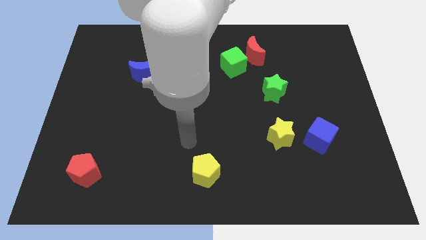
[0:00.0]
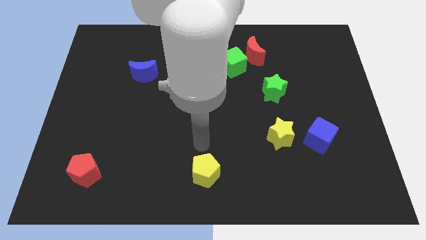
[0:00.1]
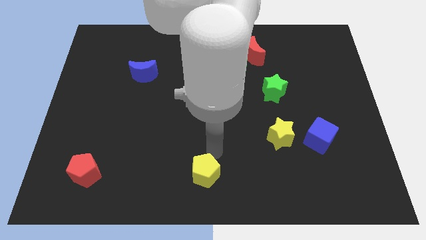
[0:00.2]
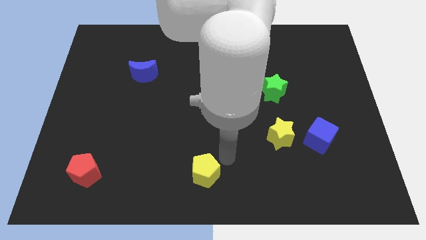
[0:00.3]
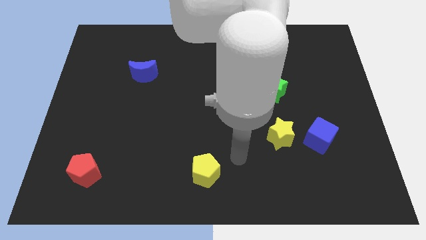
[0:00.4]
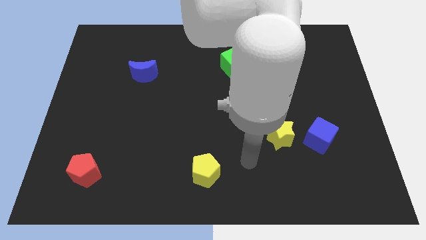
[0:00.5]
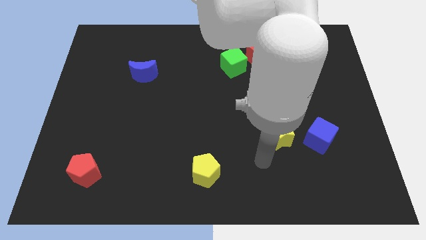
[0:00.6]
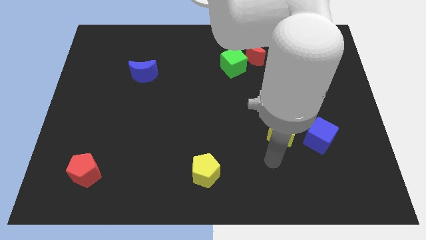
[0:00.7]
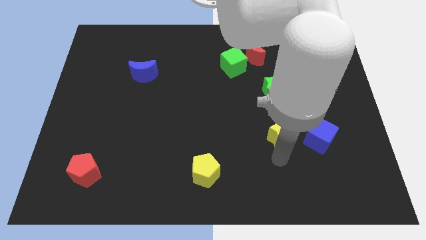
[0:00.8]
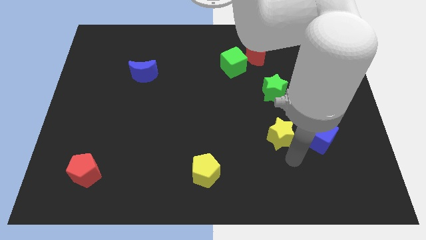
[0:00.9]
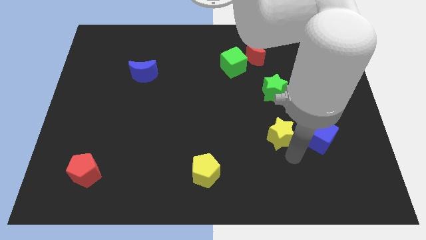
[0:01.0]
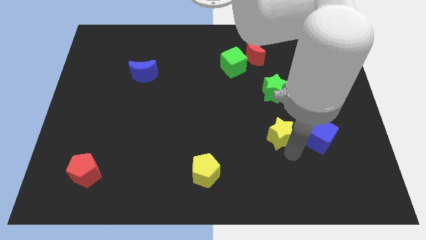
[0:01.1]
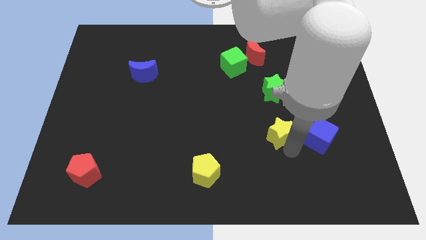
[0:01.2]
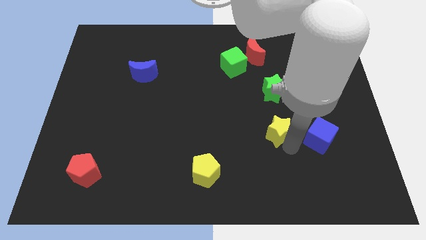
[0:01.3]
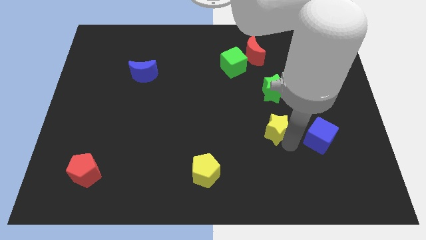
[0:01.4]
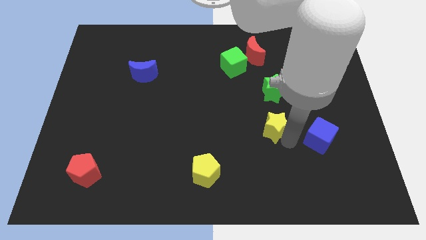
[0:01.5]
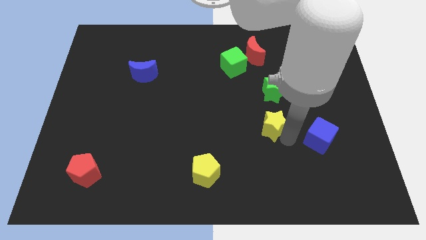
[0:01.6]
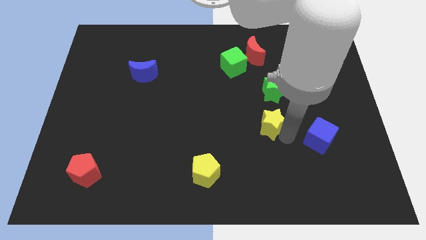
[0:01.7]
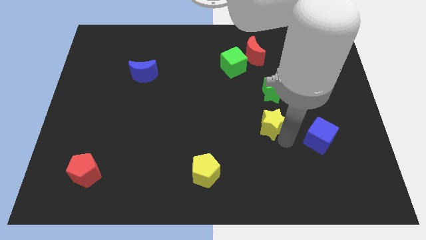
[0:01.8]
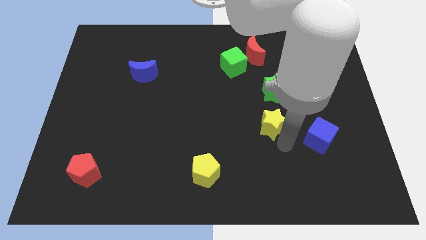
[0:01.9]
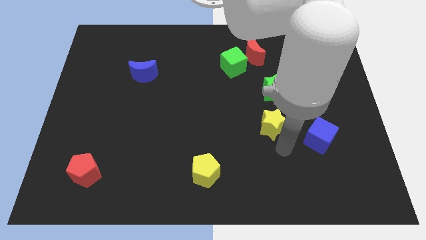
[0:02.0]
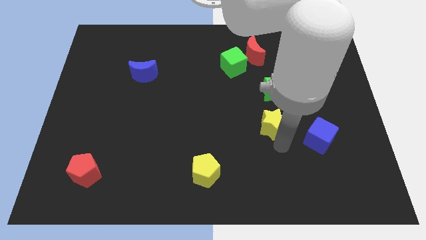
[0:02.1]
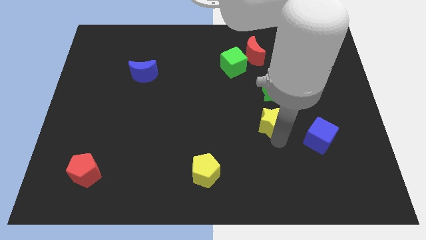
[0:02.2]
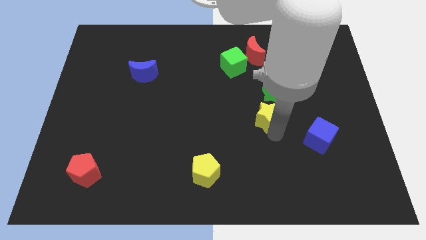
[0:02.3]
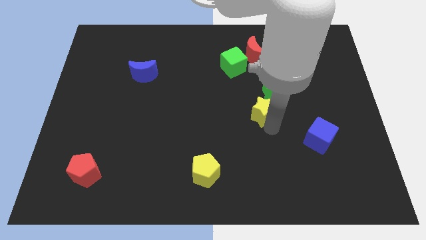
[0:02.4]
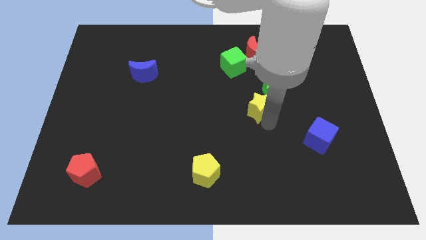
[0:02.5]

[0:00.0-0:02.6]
slightly push the yellow star upwards

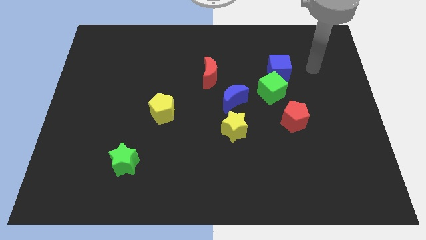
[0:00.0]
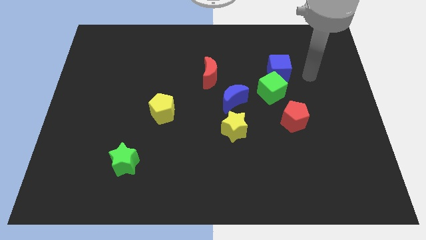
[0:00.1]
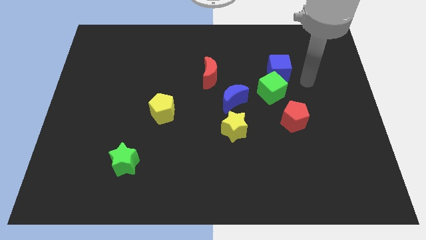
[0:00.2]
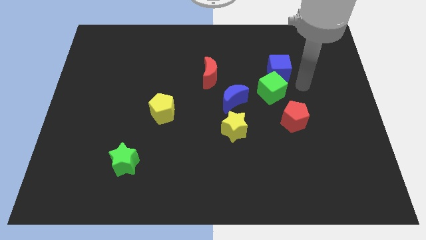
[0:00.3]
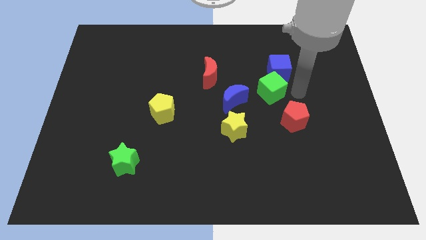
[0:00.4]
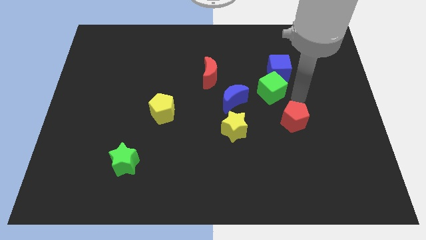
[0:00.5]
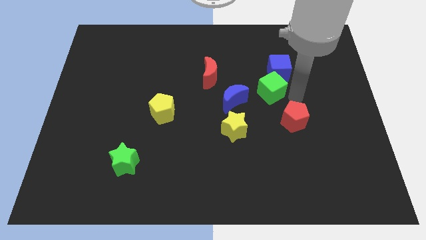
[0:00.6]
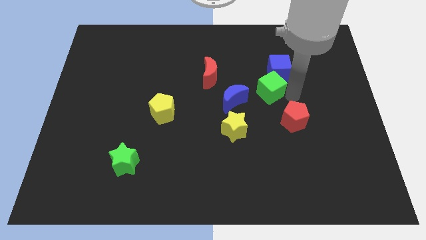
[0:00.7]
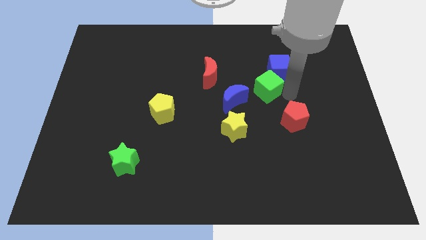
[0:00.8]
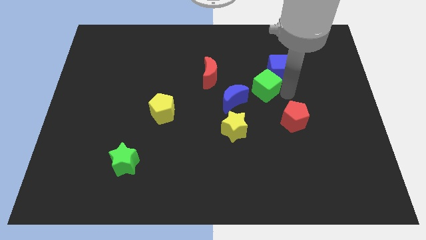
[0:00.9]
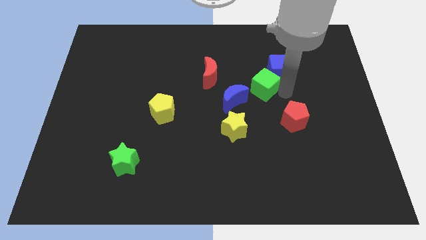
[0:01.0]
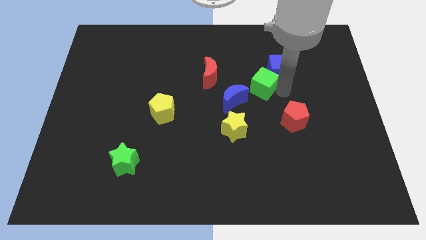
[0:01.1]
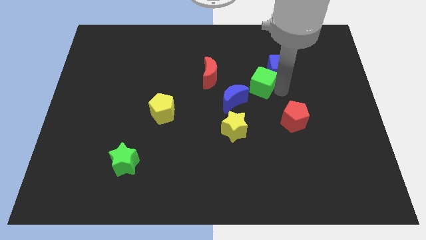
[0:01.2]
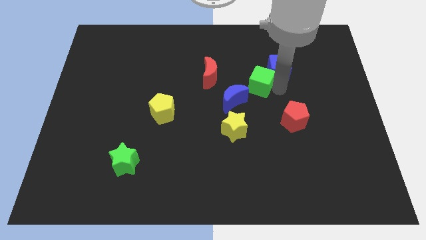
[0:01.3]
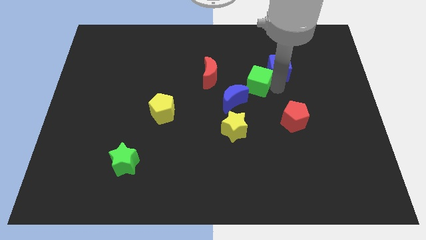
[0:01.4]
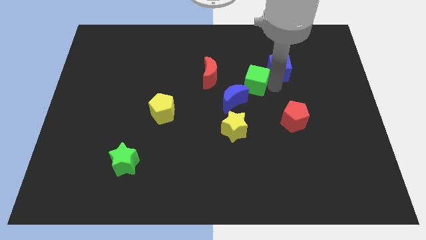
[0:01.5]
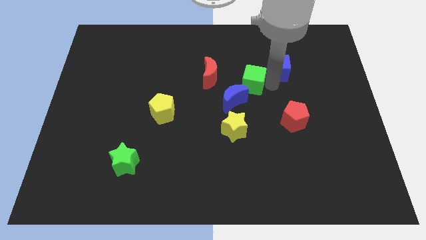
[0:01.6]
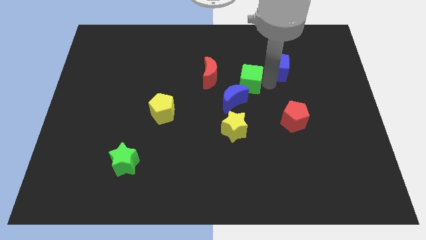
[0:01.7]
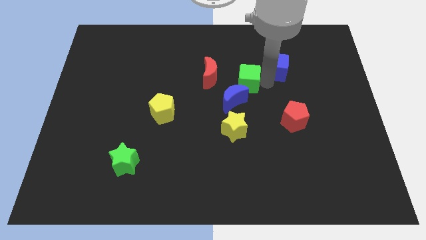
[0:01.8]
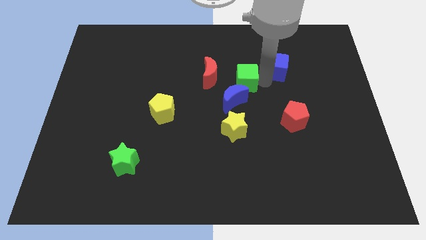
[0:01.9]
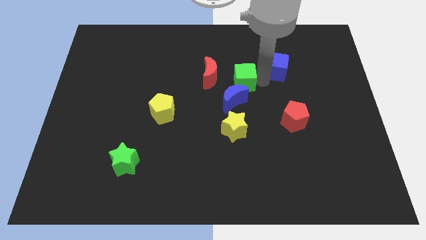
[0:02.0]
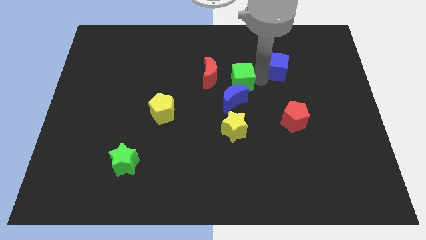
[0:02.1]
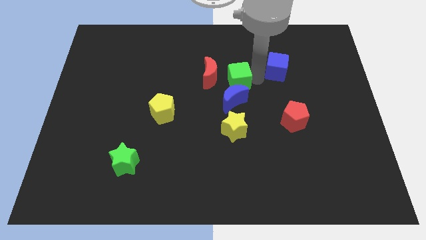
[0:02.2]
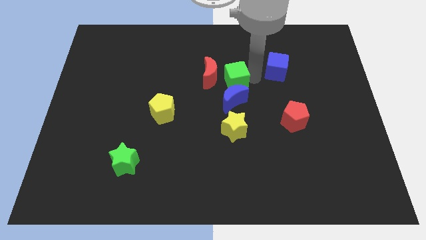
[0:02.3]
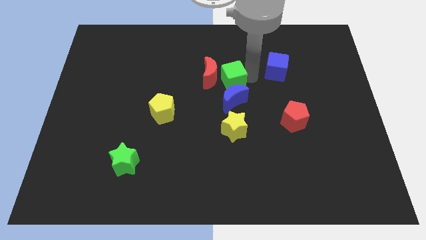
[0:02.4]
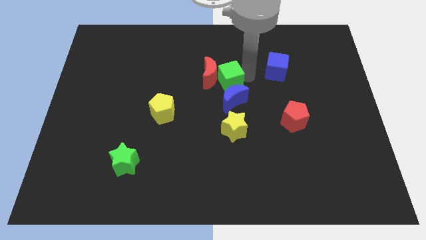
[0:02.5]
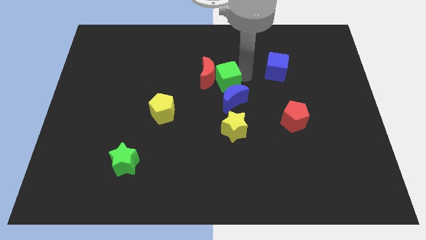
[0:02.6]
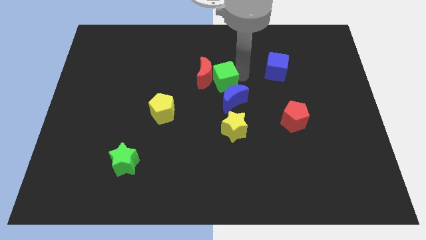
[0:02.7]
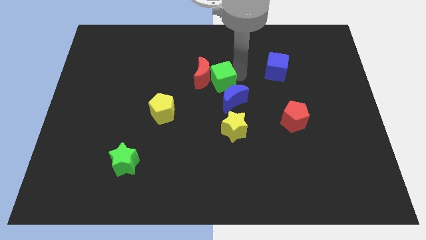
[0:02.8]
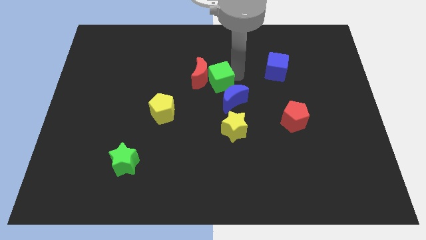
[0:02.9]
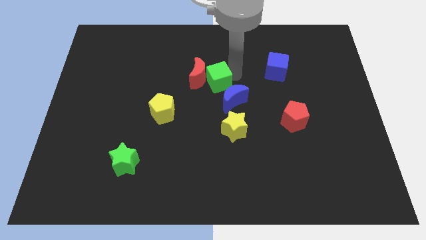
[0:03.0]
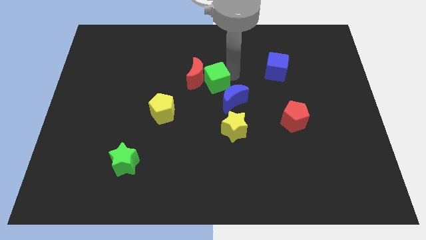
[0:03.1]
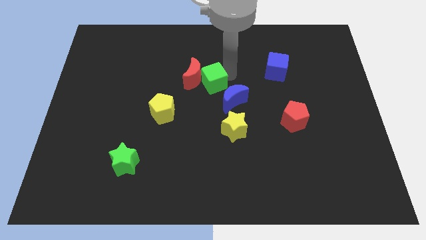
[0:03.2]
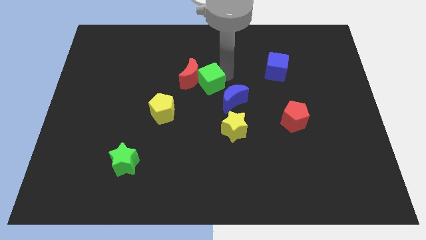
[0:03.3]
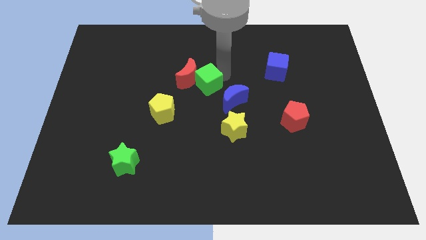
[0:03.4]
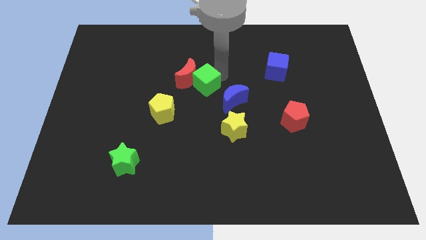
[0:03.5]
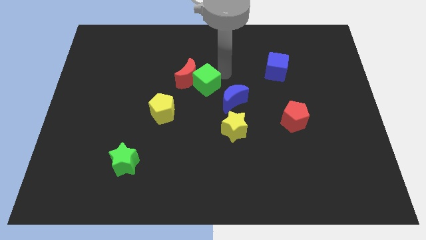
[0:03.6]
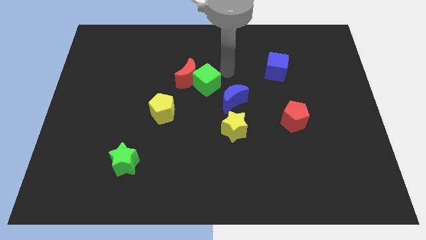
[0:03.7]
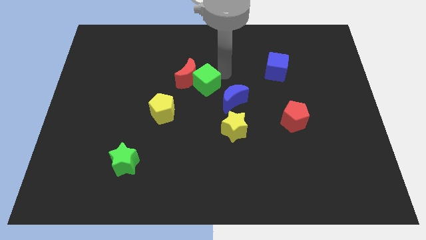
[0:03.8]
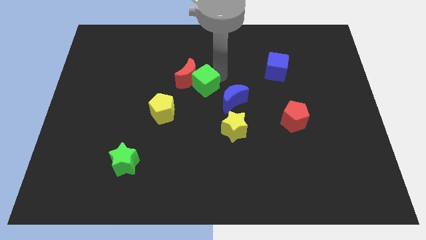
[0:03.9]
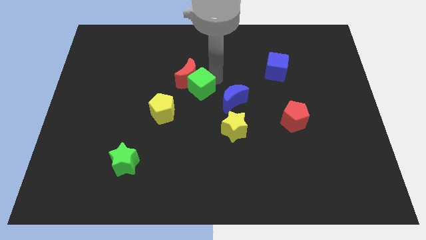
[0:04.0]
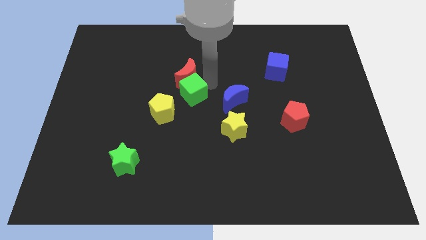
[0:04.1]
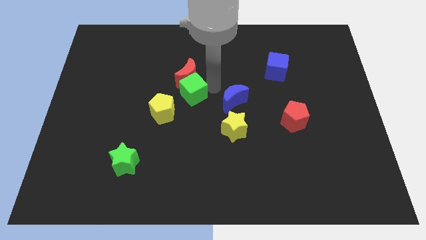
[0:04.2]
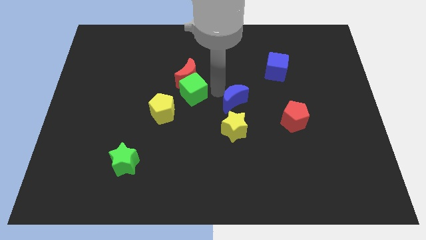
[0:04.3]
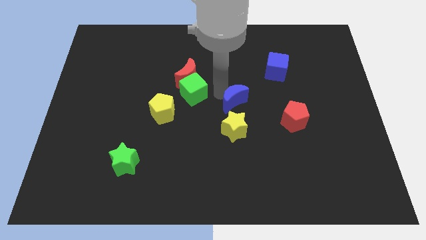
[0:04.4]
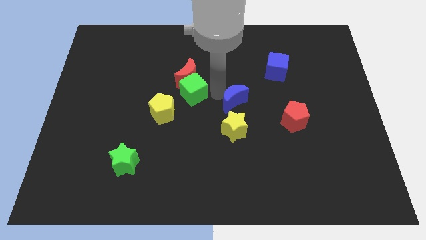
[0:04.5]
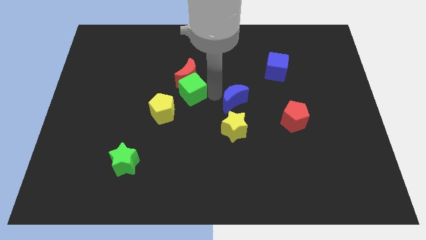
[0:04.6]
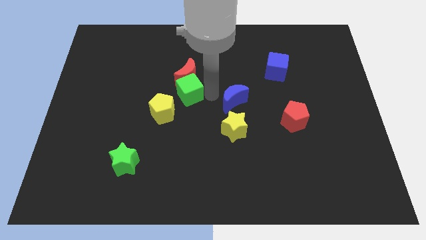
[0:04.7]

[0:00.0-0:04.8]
slide the green cube left

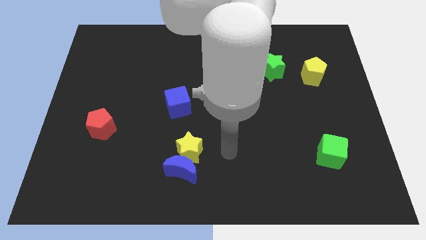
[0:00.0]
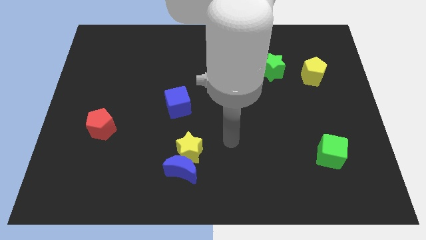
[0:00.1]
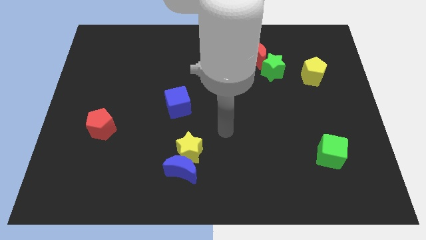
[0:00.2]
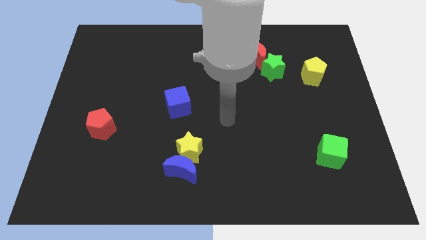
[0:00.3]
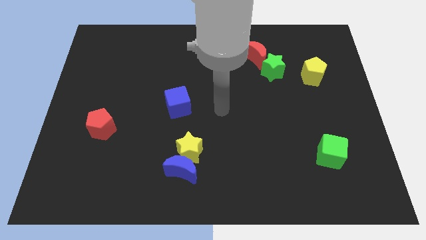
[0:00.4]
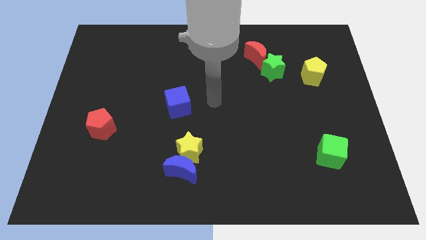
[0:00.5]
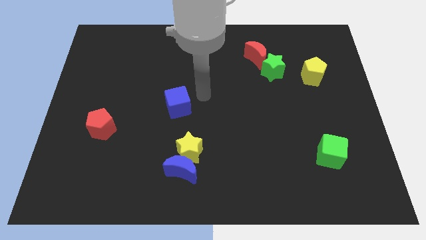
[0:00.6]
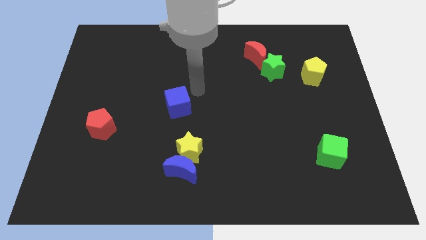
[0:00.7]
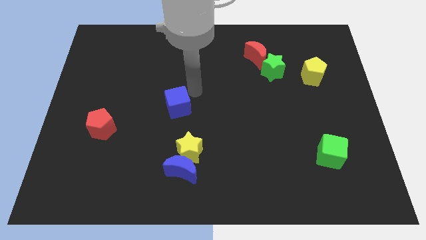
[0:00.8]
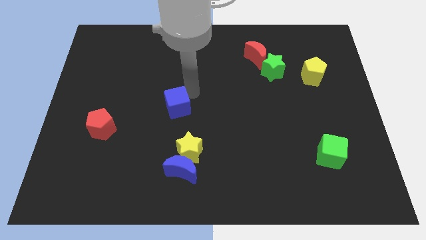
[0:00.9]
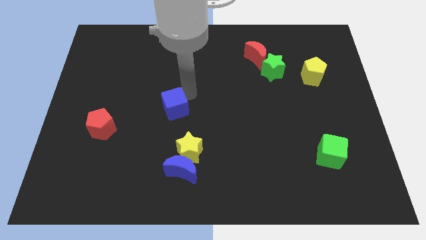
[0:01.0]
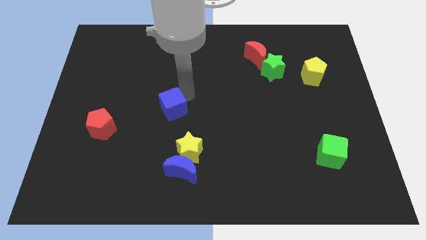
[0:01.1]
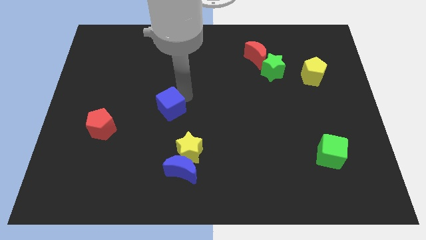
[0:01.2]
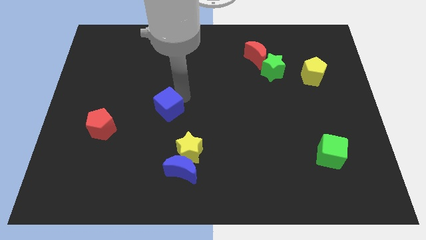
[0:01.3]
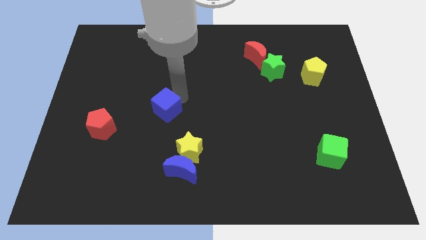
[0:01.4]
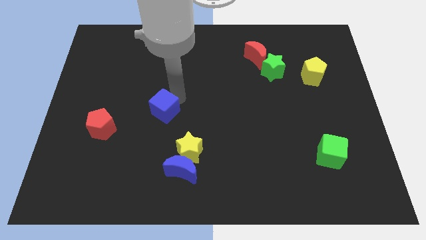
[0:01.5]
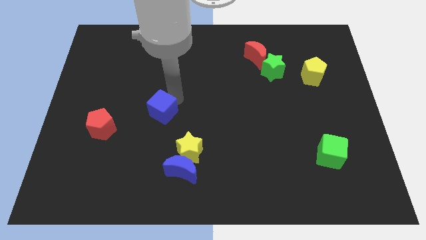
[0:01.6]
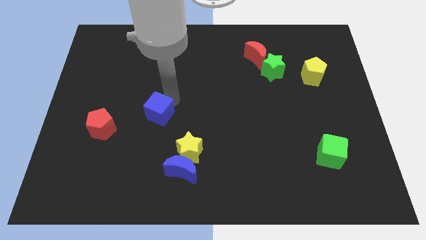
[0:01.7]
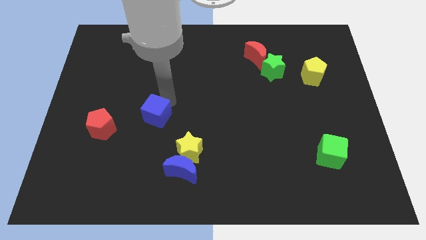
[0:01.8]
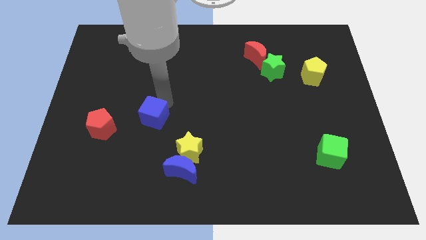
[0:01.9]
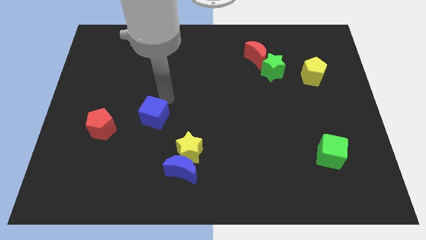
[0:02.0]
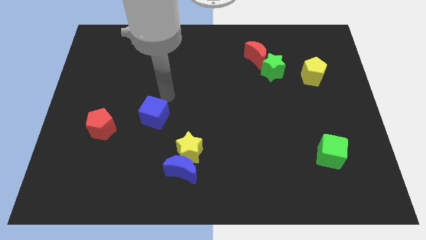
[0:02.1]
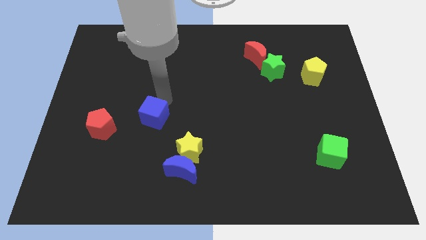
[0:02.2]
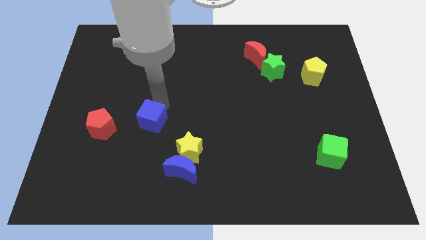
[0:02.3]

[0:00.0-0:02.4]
move the blue cube down and left a bit
